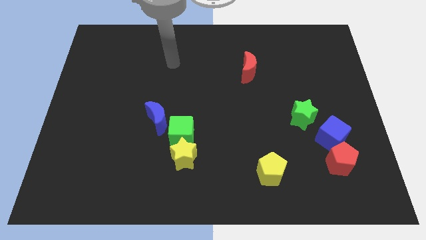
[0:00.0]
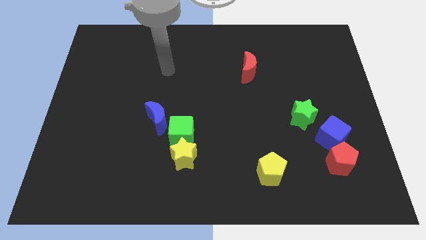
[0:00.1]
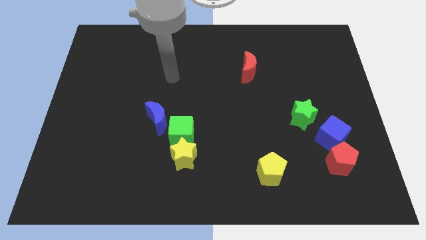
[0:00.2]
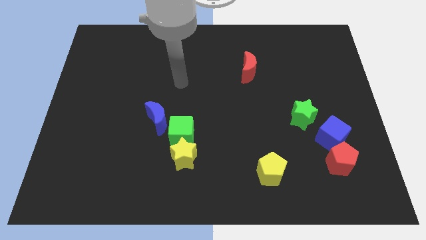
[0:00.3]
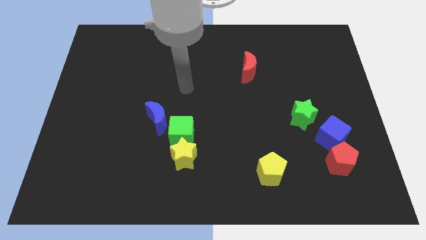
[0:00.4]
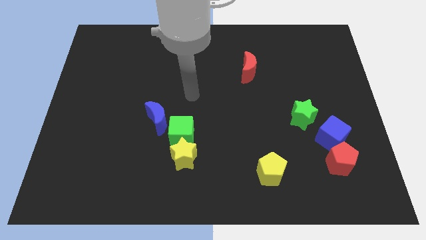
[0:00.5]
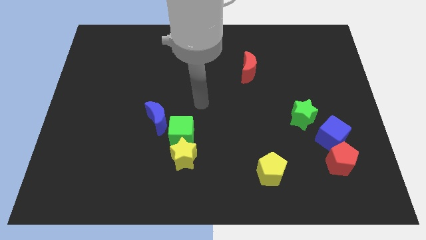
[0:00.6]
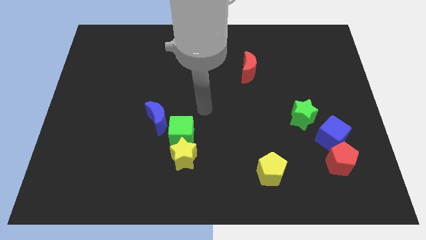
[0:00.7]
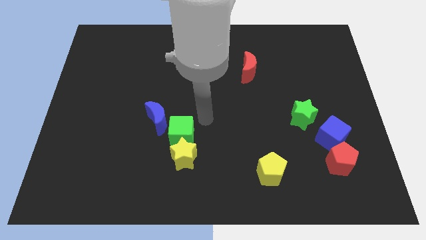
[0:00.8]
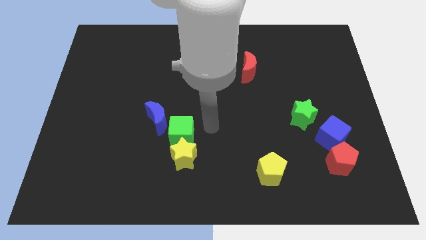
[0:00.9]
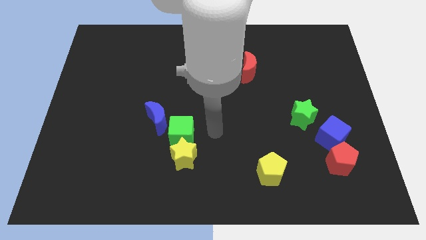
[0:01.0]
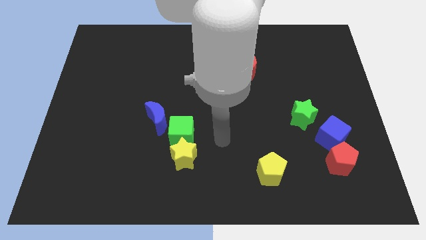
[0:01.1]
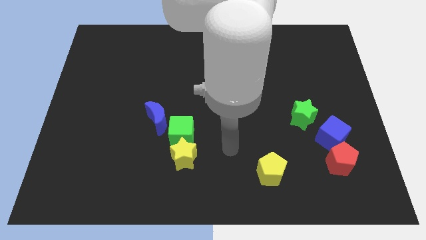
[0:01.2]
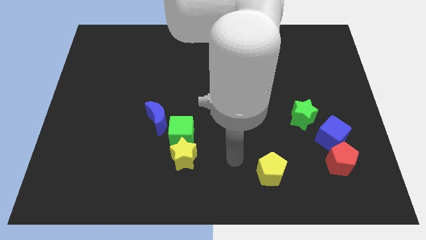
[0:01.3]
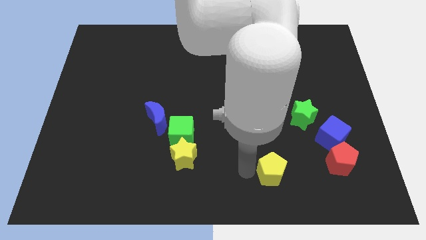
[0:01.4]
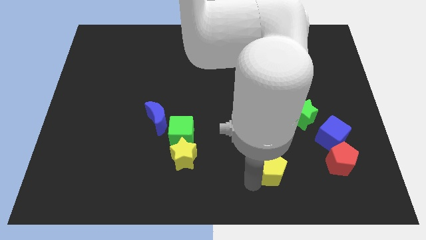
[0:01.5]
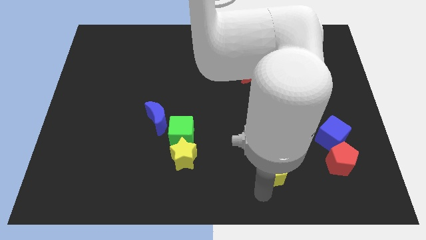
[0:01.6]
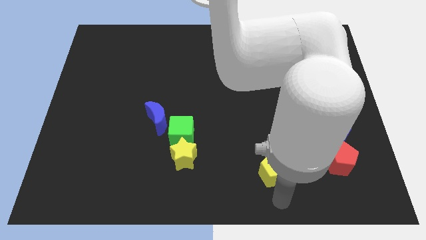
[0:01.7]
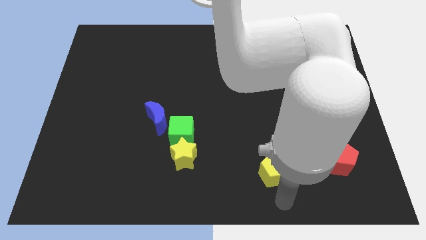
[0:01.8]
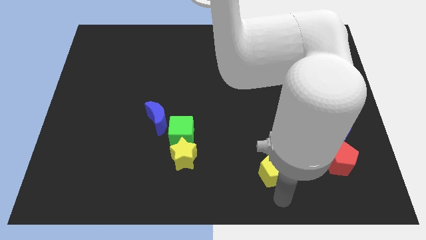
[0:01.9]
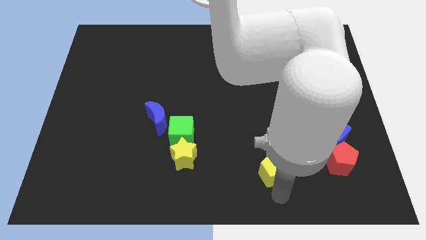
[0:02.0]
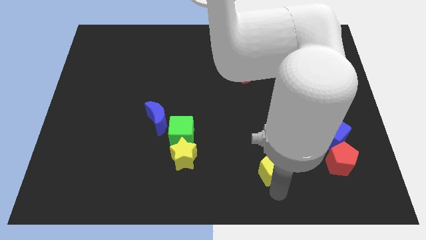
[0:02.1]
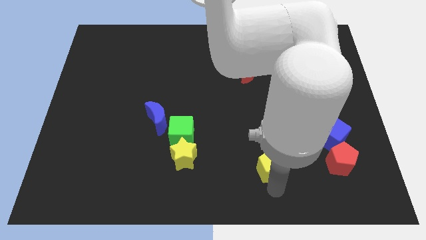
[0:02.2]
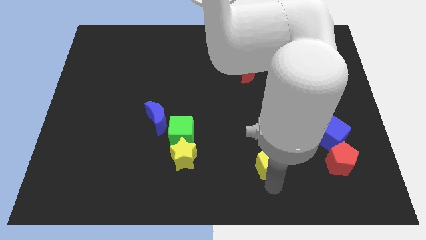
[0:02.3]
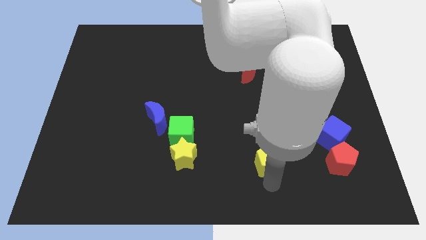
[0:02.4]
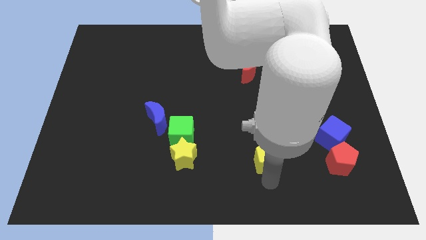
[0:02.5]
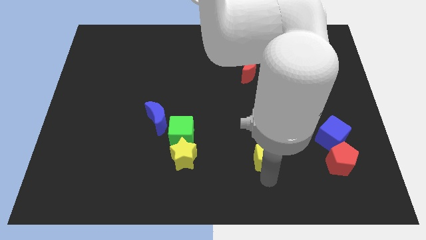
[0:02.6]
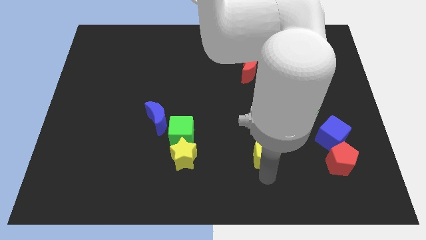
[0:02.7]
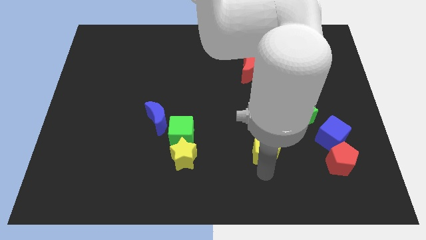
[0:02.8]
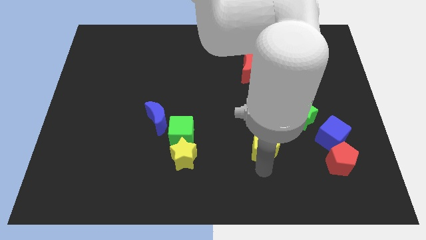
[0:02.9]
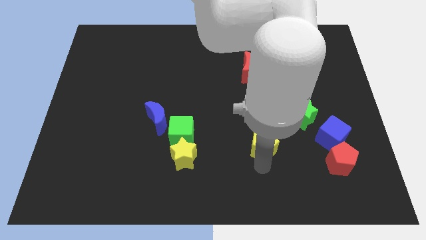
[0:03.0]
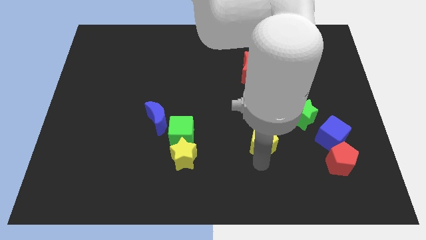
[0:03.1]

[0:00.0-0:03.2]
slide the yellow pentagon a little bit up

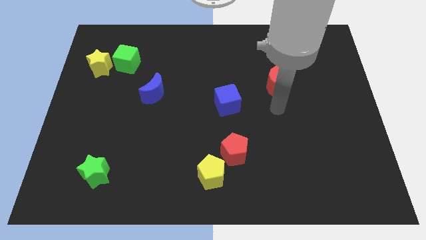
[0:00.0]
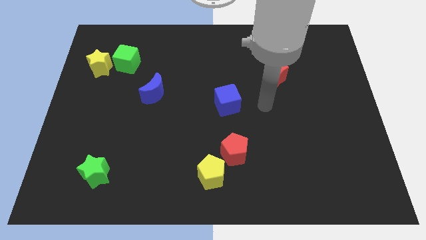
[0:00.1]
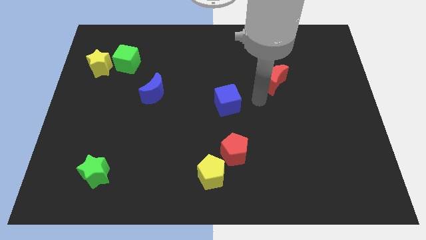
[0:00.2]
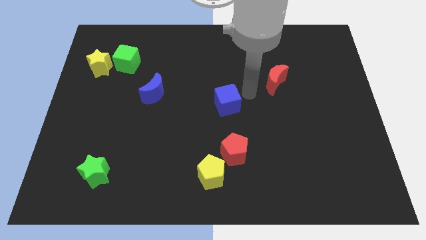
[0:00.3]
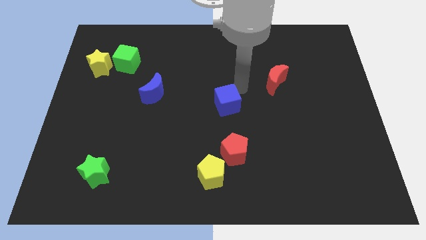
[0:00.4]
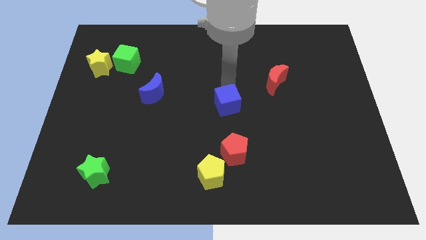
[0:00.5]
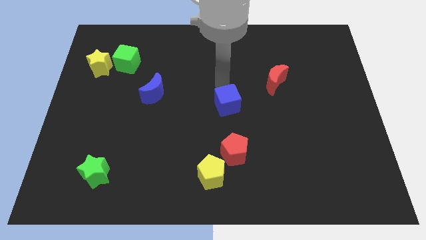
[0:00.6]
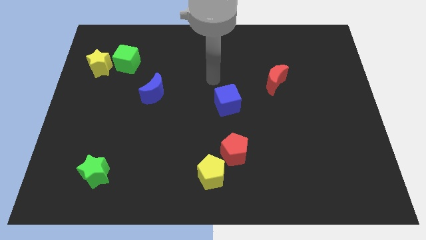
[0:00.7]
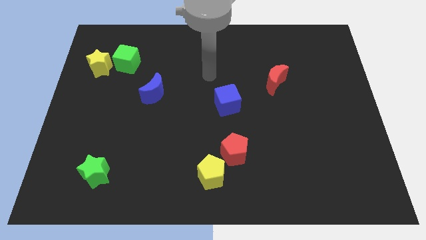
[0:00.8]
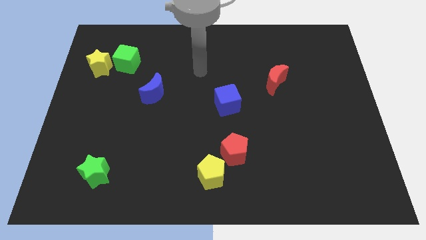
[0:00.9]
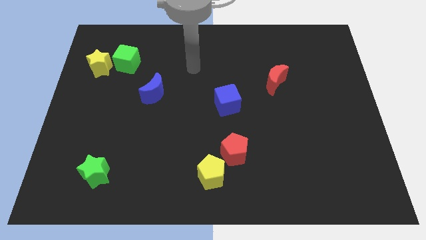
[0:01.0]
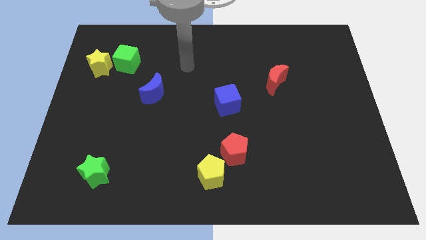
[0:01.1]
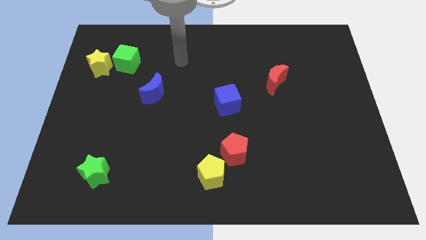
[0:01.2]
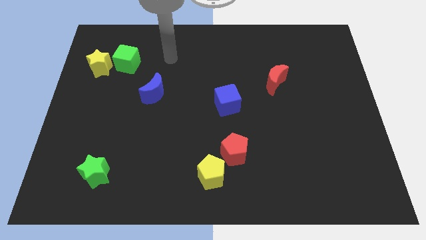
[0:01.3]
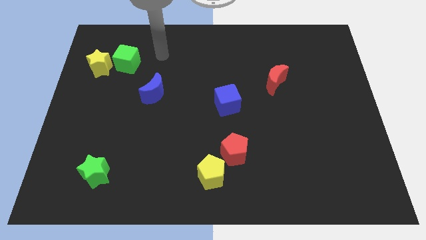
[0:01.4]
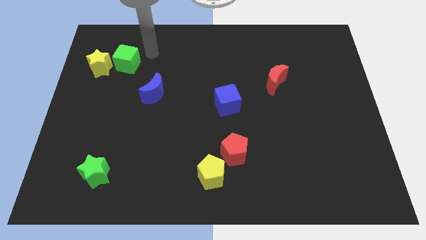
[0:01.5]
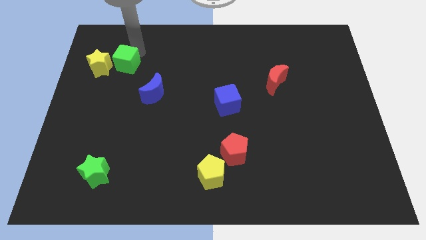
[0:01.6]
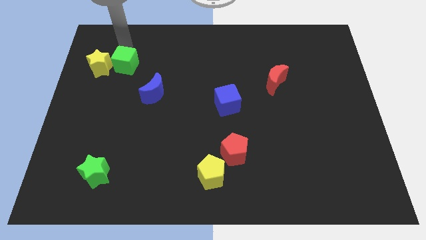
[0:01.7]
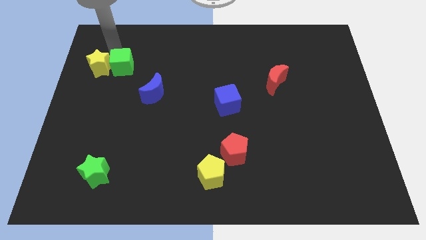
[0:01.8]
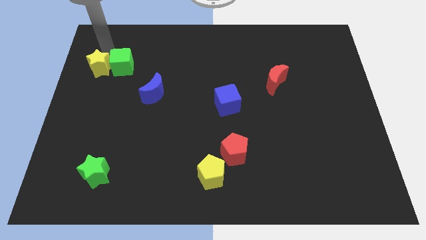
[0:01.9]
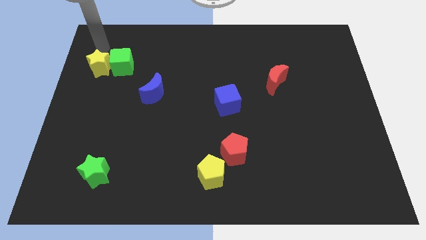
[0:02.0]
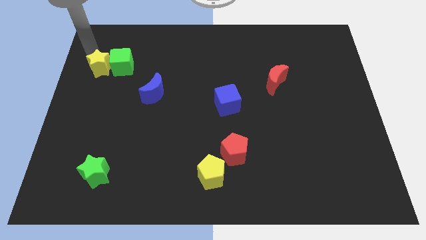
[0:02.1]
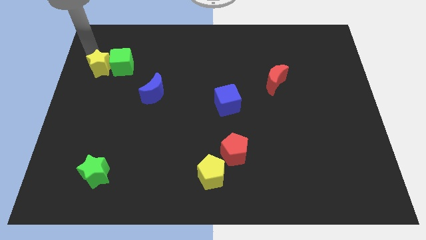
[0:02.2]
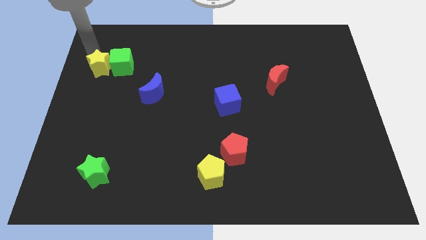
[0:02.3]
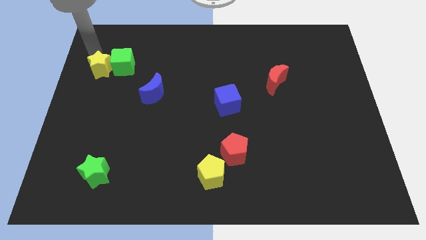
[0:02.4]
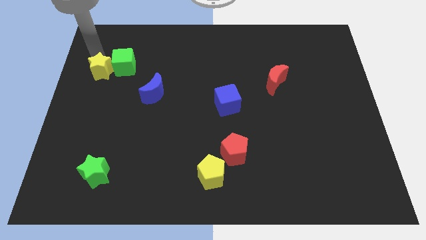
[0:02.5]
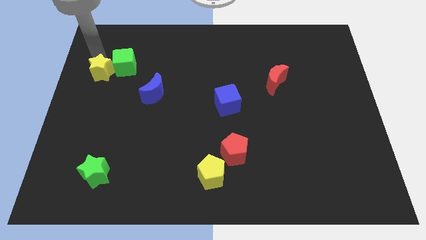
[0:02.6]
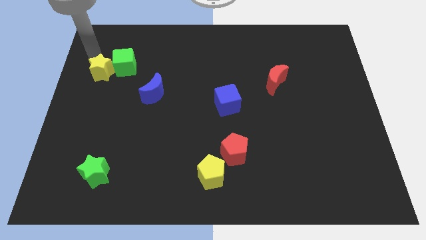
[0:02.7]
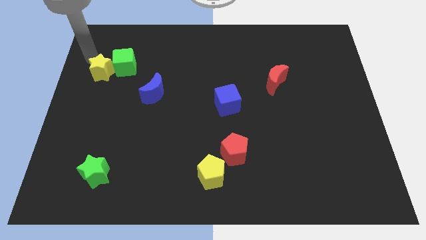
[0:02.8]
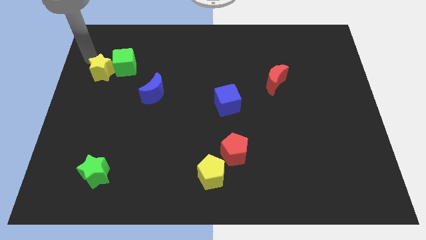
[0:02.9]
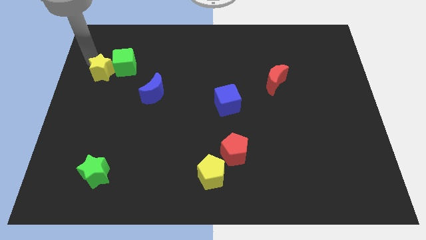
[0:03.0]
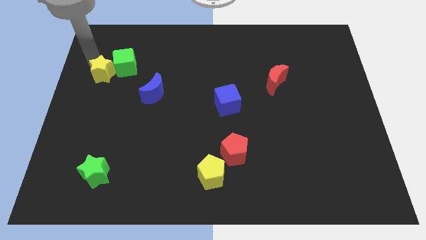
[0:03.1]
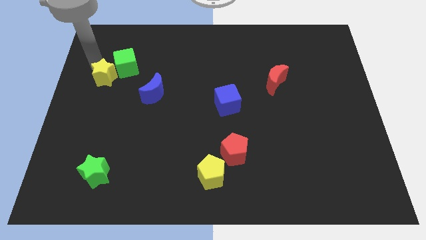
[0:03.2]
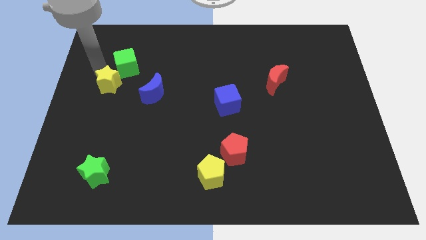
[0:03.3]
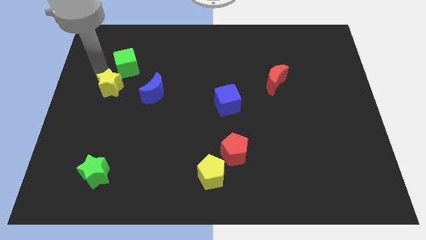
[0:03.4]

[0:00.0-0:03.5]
move the yellow star down and right somewhat

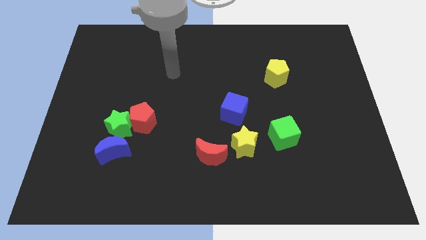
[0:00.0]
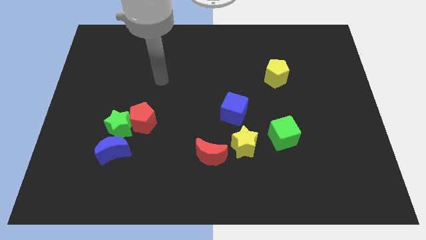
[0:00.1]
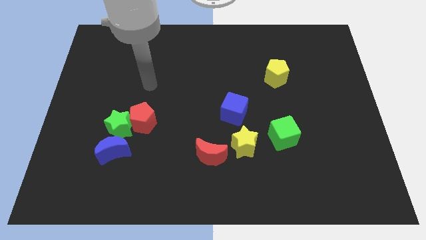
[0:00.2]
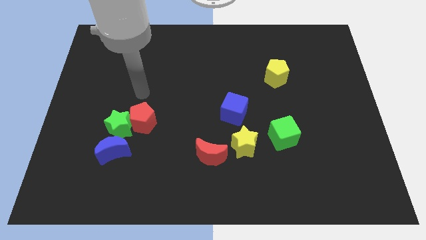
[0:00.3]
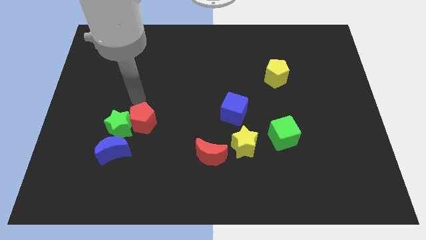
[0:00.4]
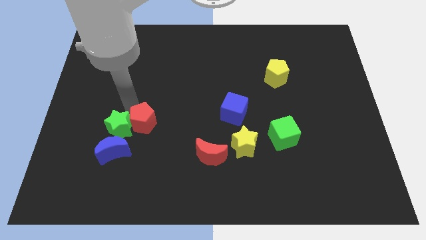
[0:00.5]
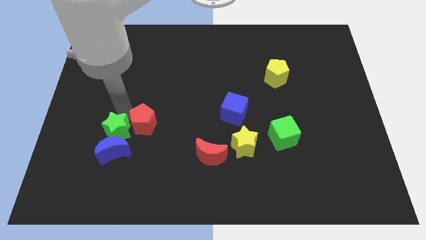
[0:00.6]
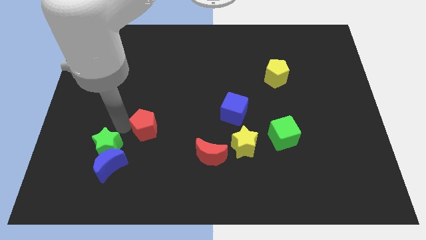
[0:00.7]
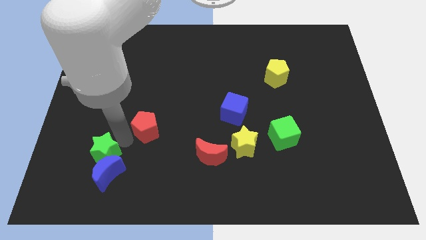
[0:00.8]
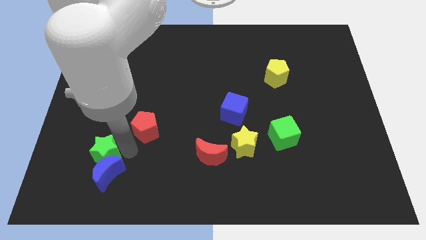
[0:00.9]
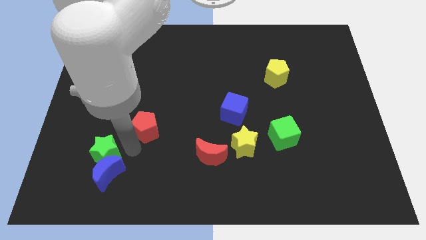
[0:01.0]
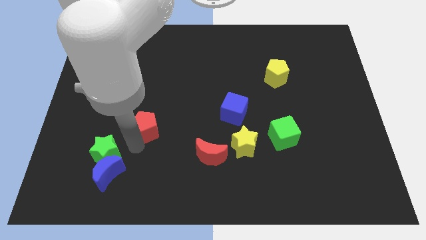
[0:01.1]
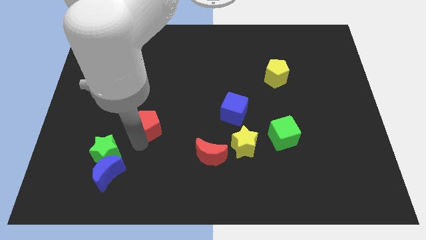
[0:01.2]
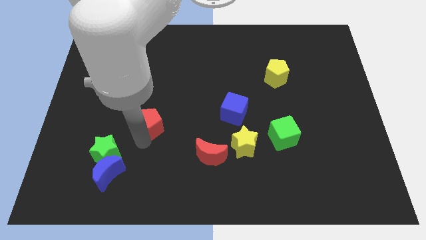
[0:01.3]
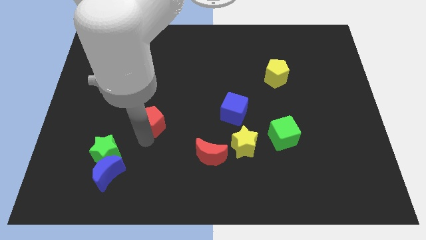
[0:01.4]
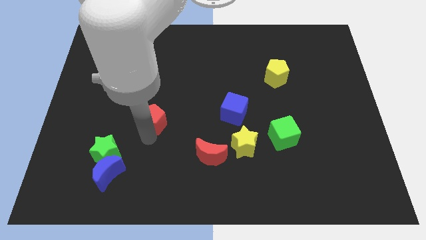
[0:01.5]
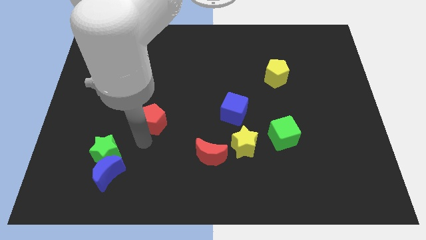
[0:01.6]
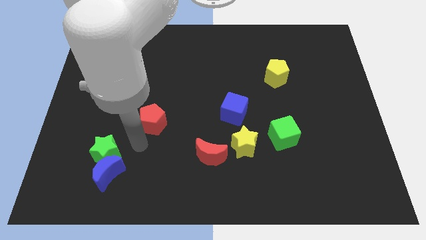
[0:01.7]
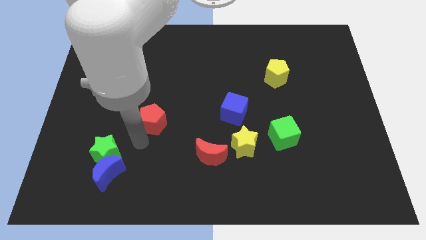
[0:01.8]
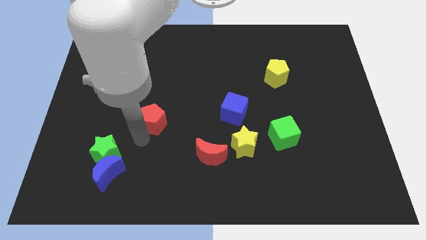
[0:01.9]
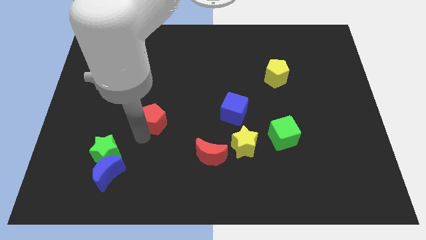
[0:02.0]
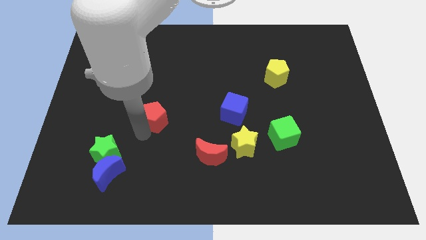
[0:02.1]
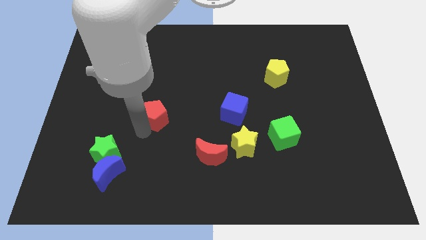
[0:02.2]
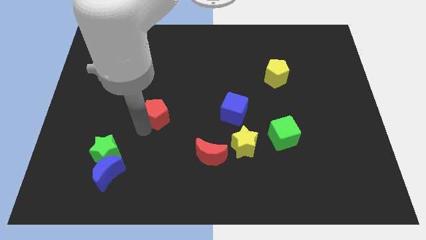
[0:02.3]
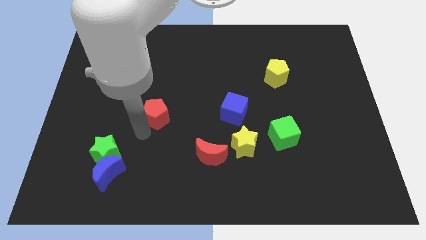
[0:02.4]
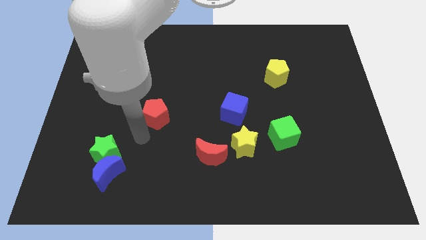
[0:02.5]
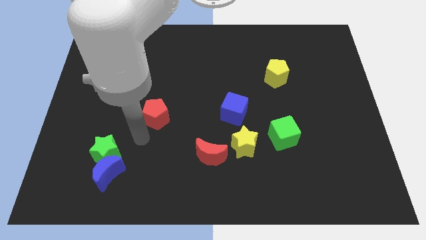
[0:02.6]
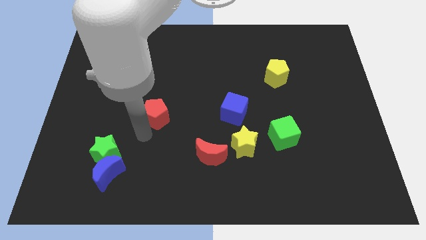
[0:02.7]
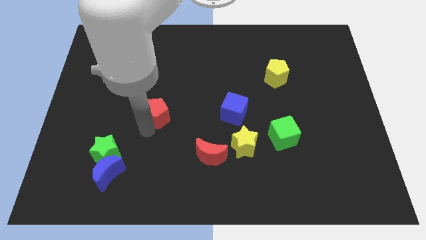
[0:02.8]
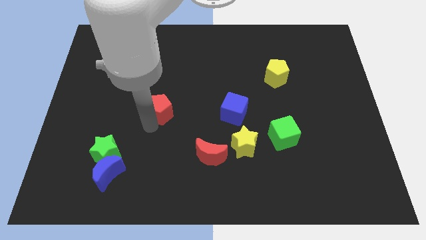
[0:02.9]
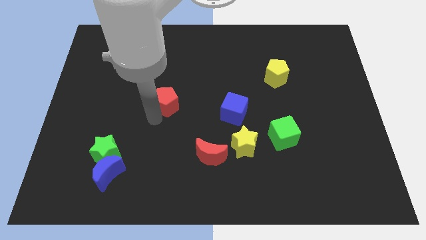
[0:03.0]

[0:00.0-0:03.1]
slightly slide the red pentagon diagonally upwards and to the right
